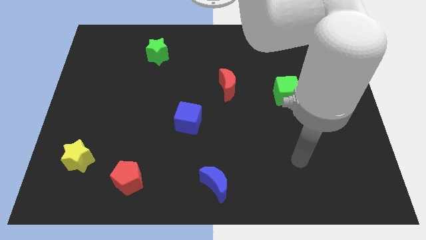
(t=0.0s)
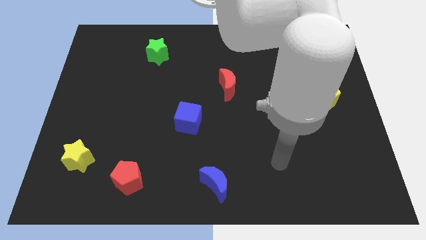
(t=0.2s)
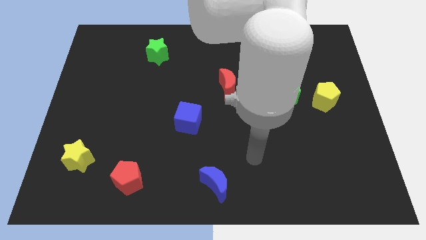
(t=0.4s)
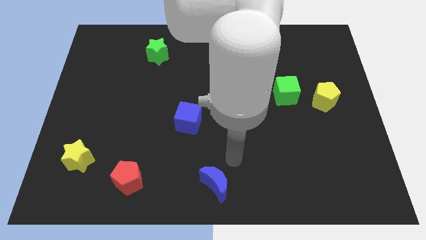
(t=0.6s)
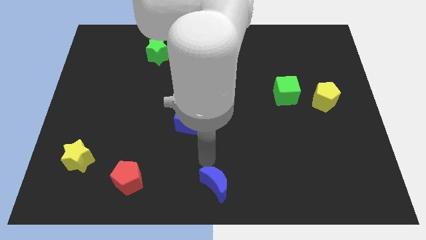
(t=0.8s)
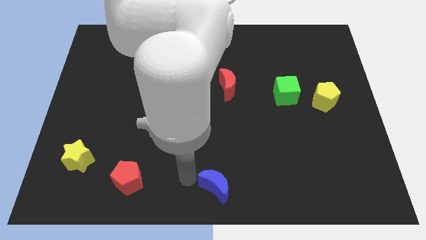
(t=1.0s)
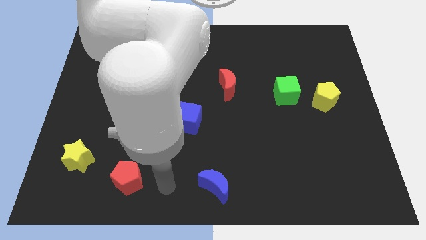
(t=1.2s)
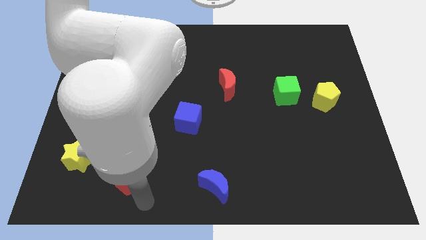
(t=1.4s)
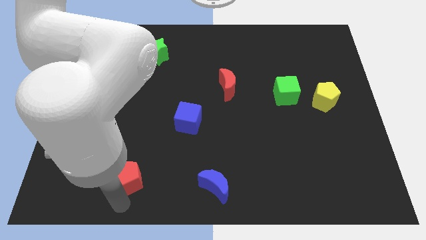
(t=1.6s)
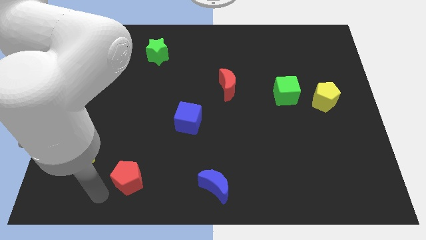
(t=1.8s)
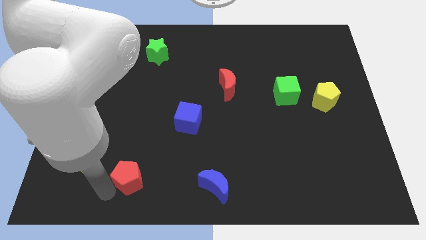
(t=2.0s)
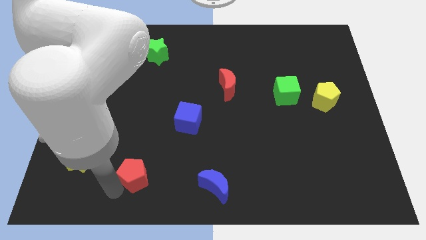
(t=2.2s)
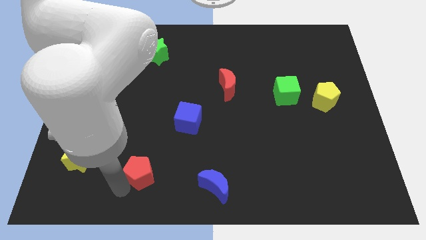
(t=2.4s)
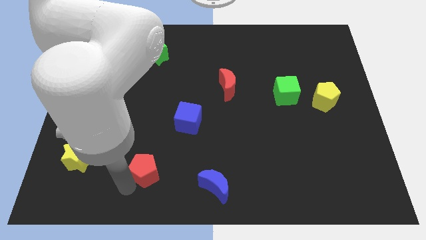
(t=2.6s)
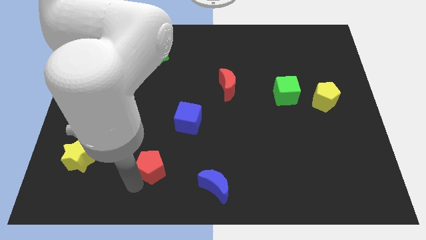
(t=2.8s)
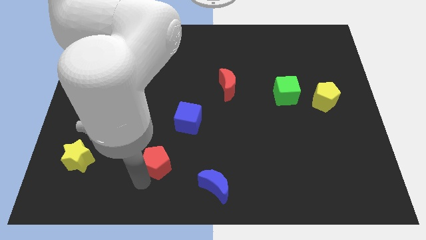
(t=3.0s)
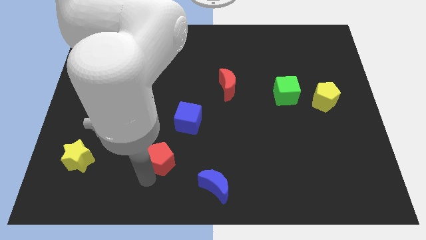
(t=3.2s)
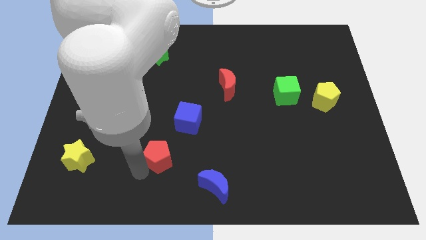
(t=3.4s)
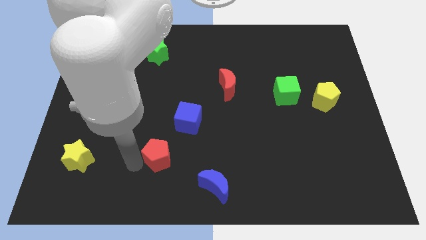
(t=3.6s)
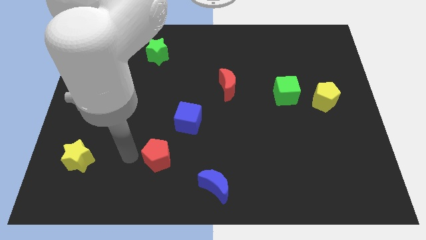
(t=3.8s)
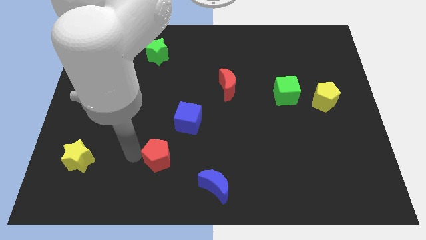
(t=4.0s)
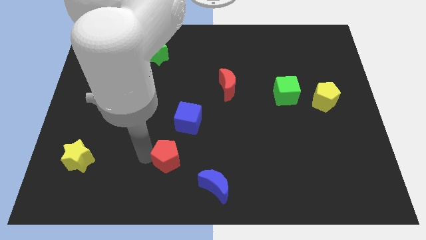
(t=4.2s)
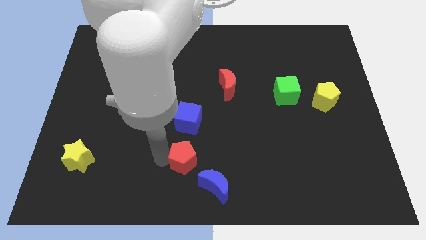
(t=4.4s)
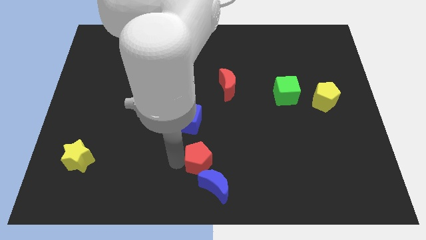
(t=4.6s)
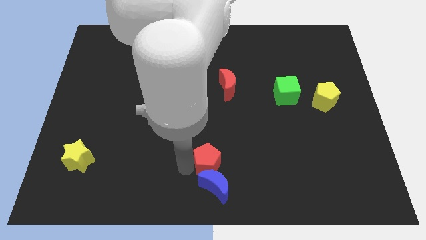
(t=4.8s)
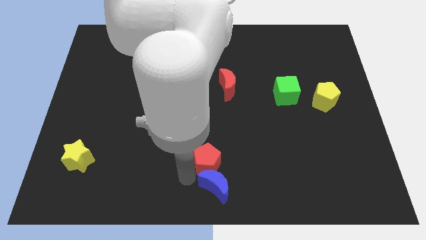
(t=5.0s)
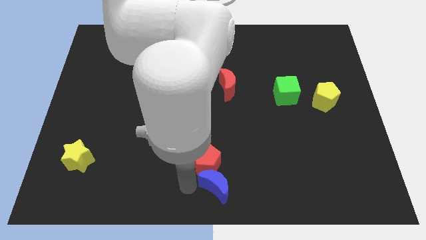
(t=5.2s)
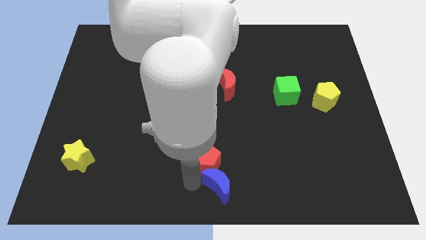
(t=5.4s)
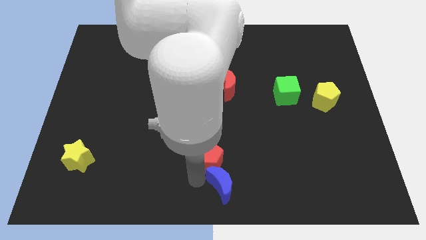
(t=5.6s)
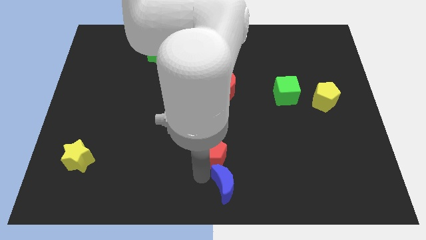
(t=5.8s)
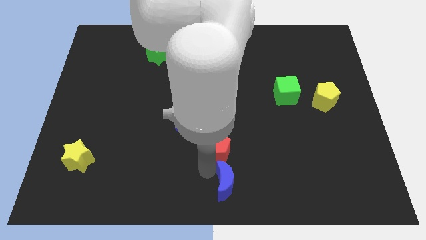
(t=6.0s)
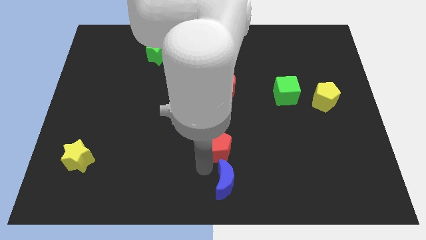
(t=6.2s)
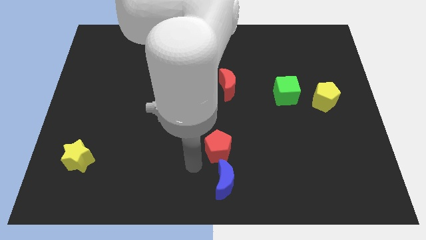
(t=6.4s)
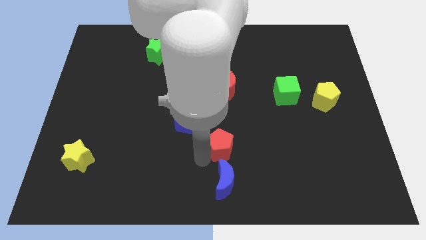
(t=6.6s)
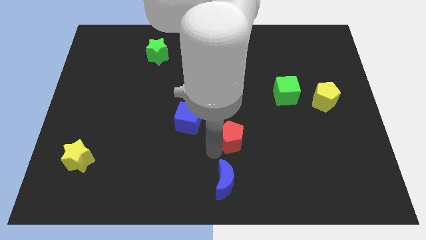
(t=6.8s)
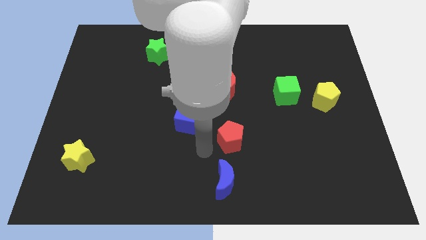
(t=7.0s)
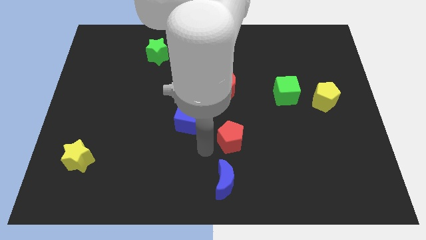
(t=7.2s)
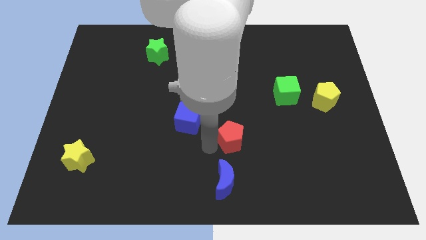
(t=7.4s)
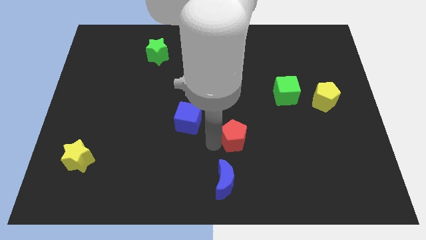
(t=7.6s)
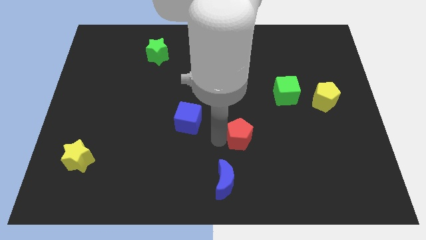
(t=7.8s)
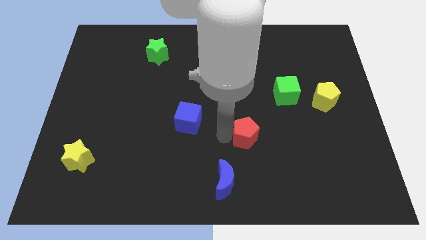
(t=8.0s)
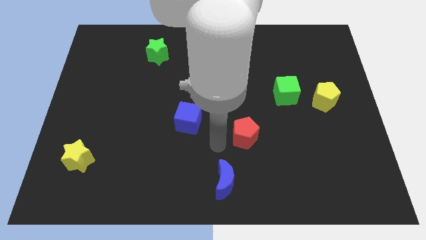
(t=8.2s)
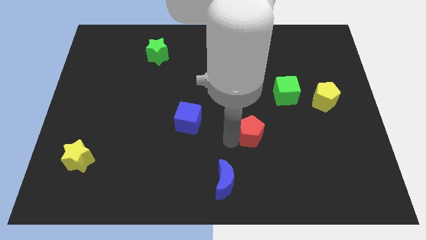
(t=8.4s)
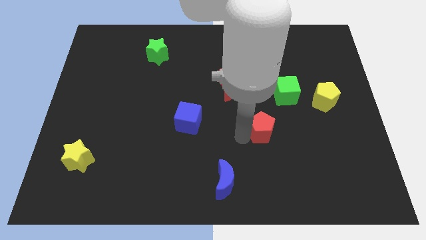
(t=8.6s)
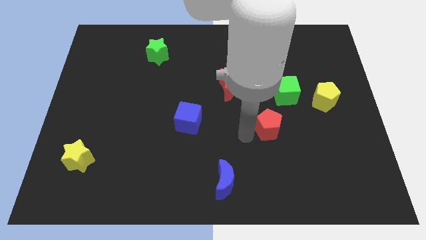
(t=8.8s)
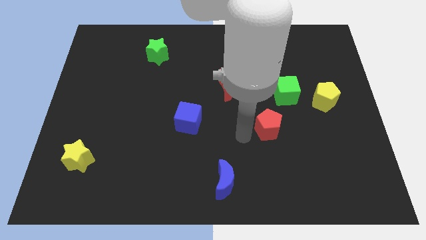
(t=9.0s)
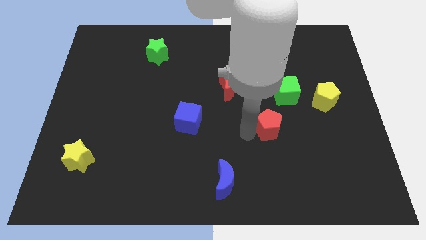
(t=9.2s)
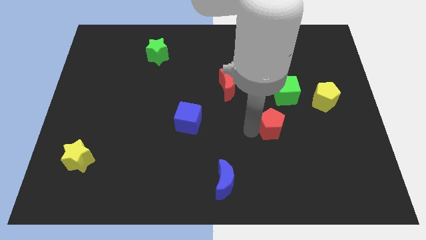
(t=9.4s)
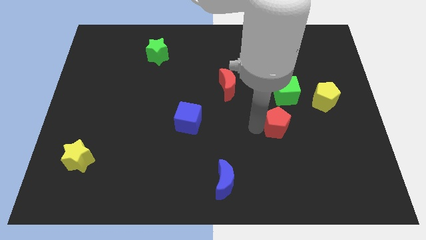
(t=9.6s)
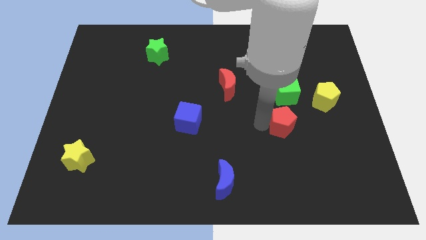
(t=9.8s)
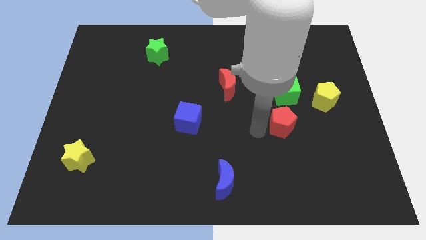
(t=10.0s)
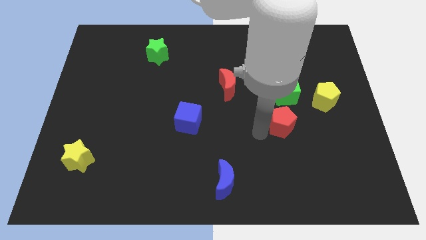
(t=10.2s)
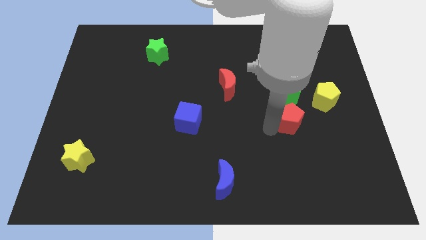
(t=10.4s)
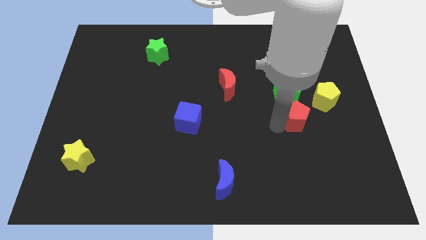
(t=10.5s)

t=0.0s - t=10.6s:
slide the red pentagon diagonally down and to the right of the green cube

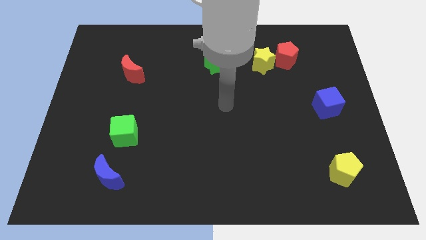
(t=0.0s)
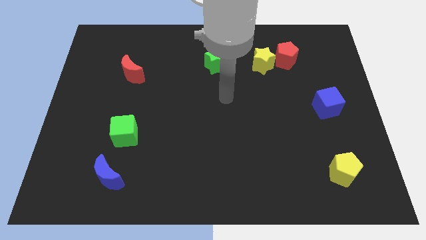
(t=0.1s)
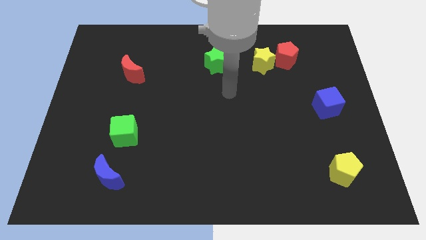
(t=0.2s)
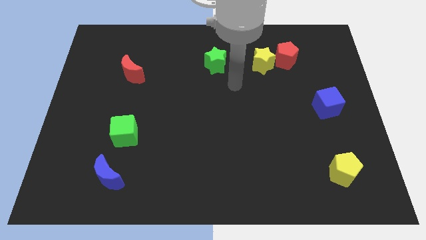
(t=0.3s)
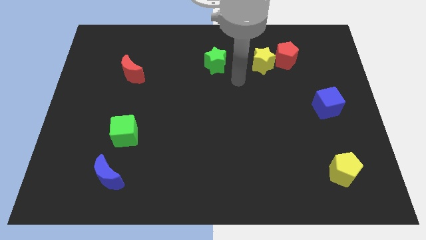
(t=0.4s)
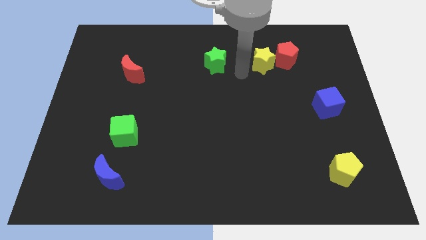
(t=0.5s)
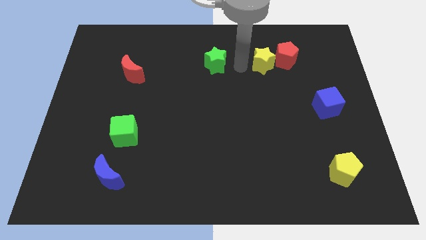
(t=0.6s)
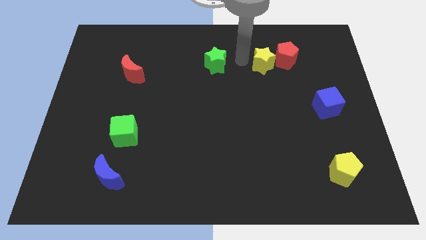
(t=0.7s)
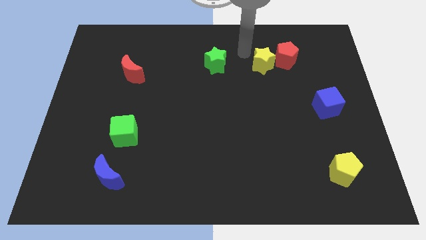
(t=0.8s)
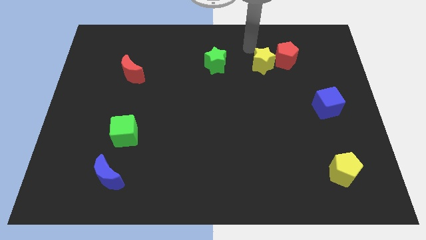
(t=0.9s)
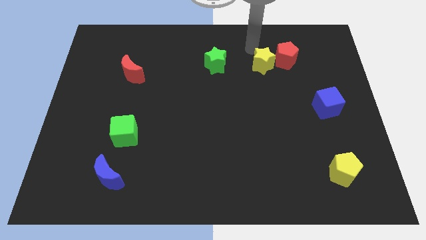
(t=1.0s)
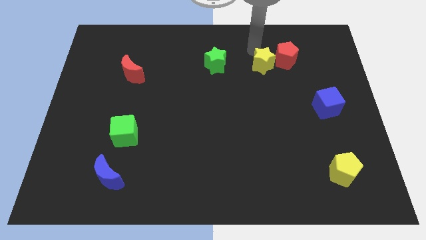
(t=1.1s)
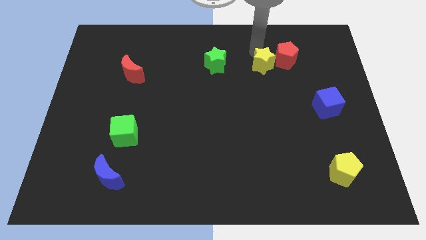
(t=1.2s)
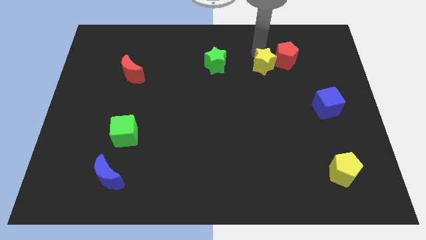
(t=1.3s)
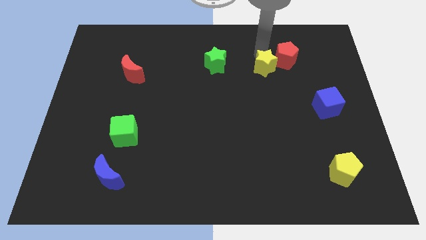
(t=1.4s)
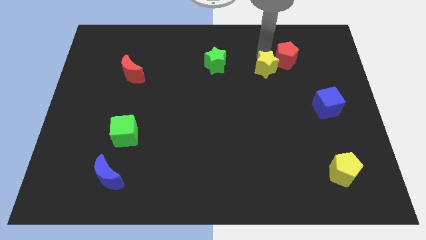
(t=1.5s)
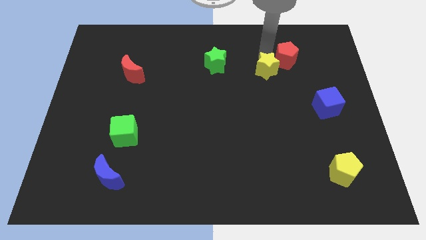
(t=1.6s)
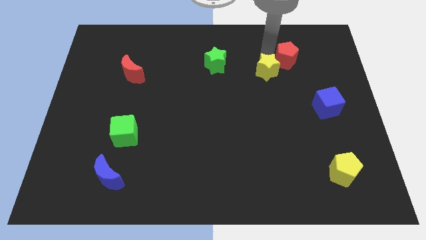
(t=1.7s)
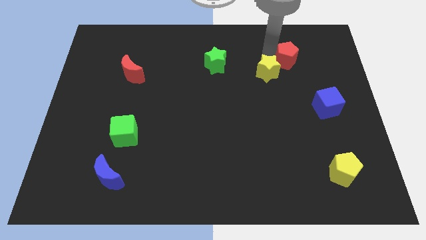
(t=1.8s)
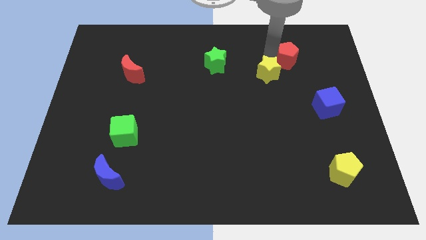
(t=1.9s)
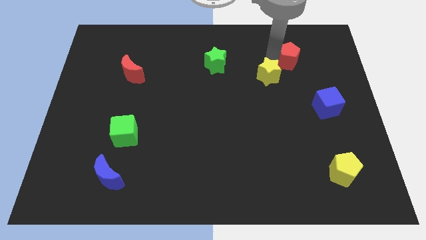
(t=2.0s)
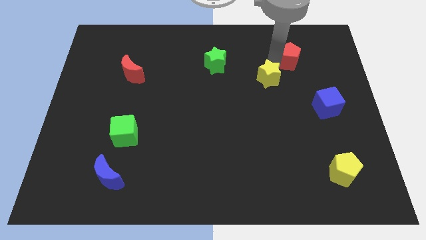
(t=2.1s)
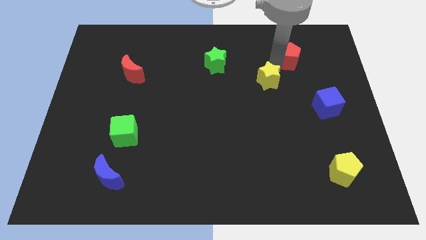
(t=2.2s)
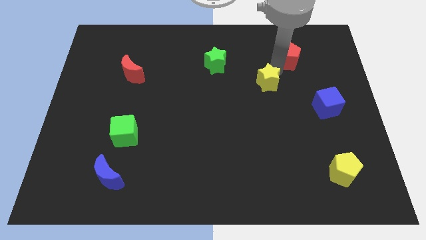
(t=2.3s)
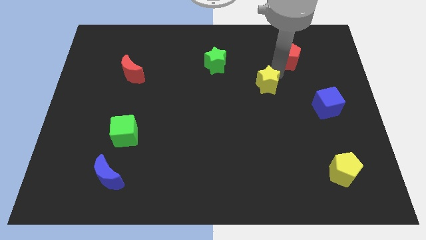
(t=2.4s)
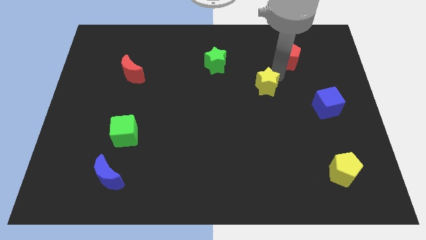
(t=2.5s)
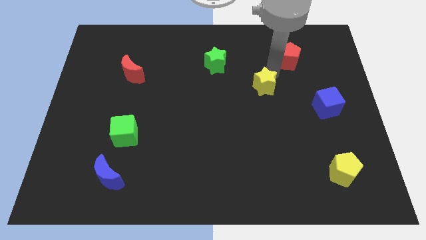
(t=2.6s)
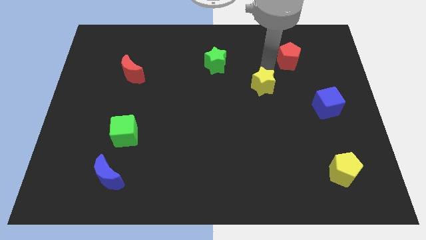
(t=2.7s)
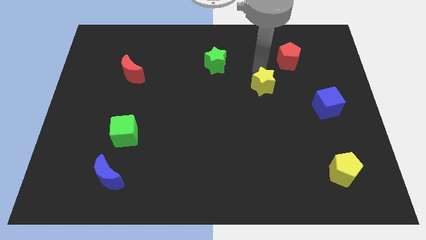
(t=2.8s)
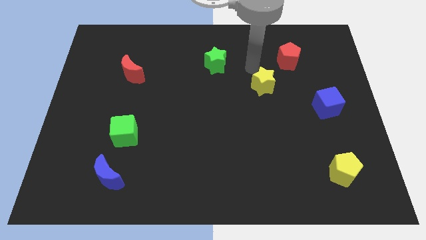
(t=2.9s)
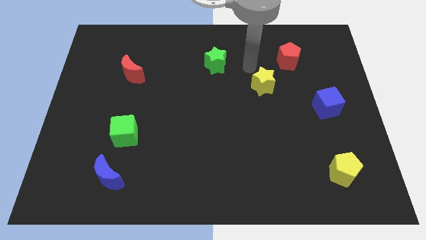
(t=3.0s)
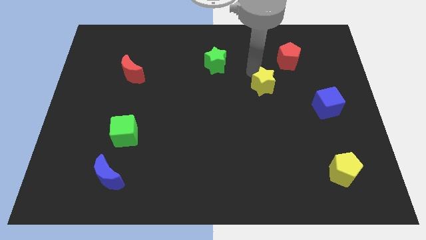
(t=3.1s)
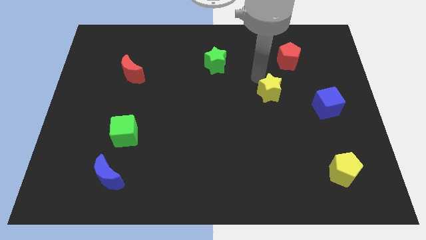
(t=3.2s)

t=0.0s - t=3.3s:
push the yellow star to the left of the blue cube
